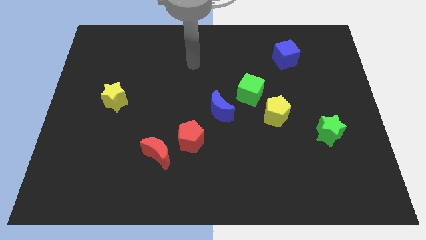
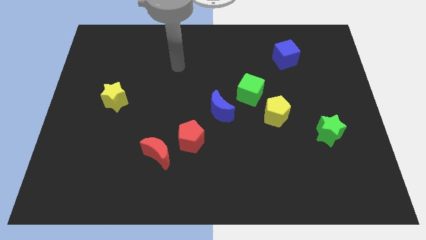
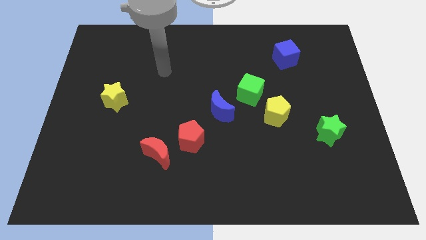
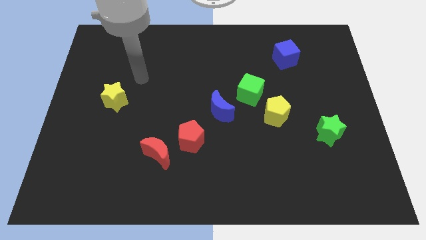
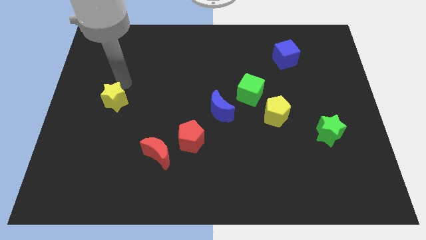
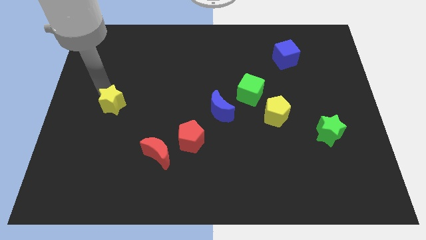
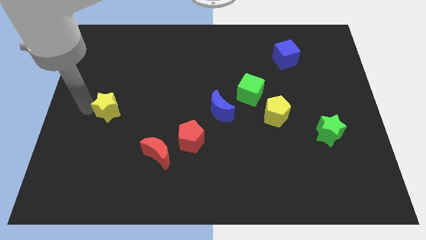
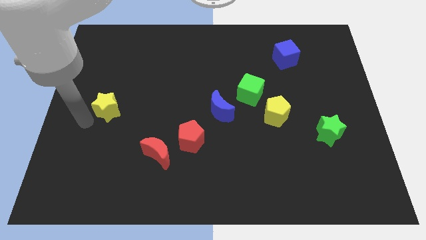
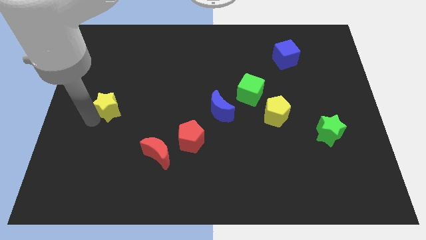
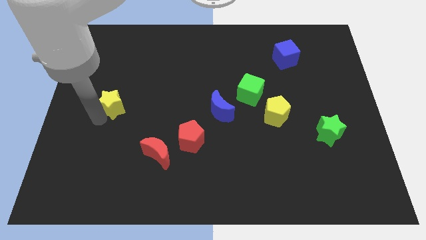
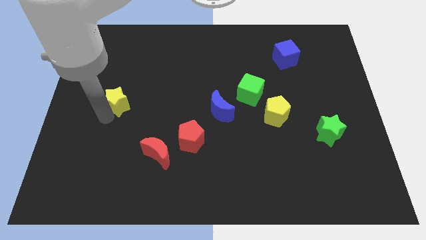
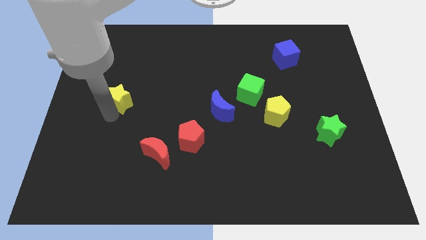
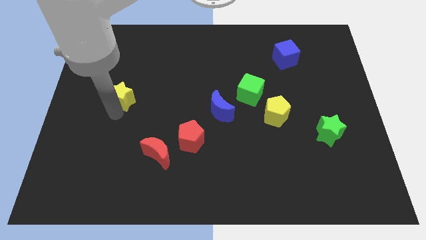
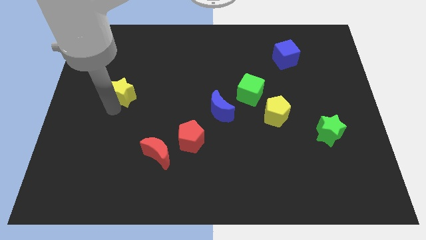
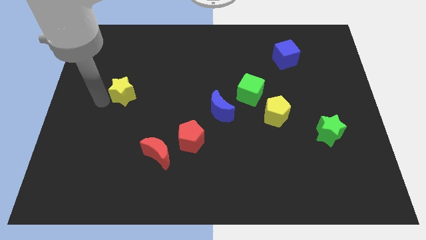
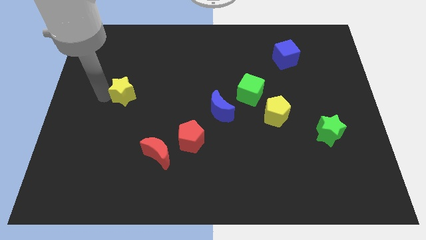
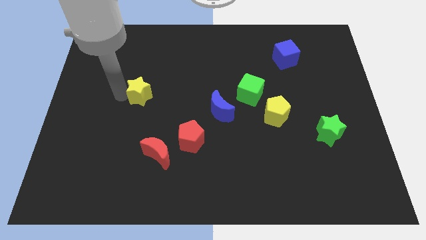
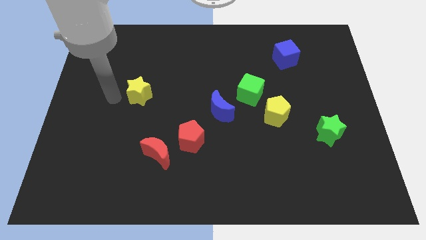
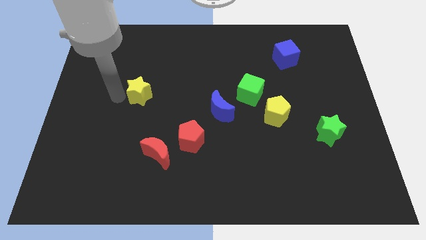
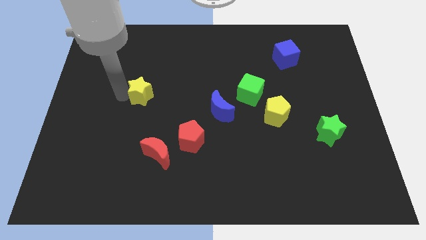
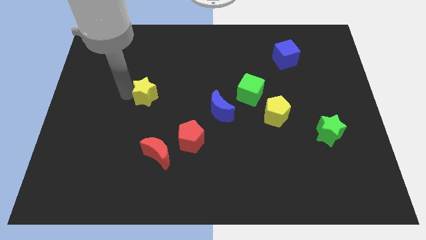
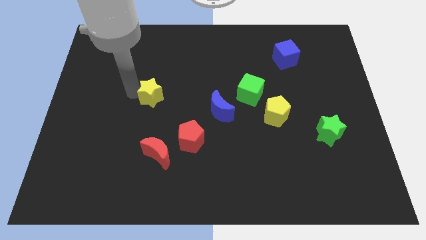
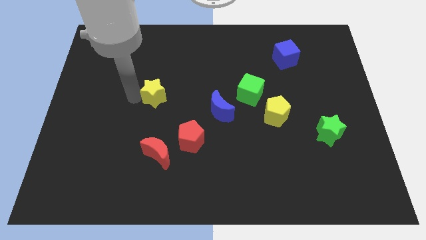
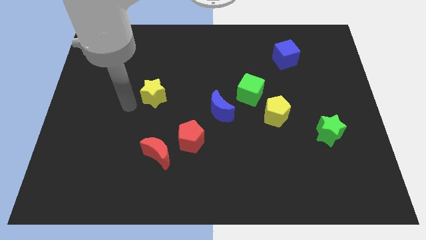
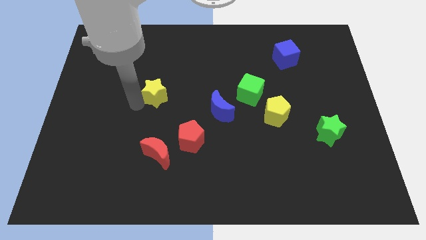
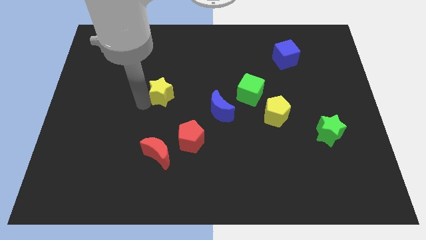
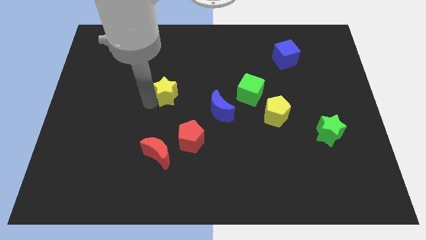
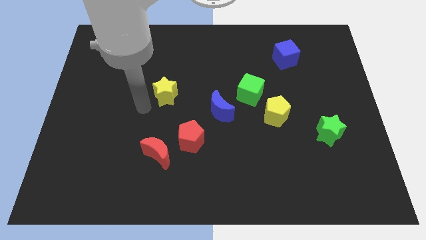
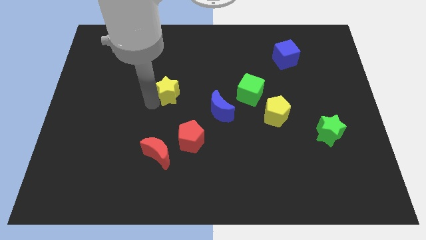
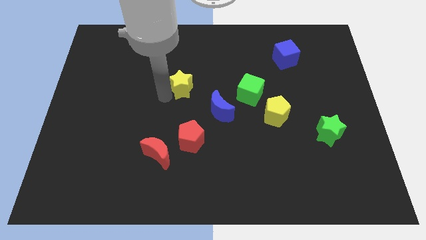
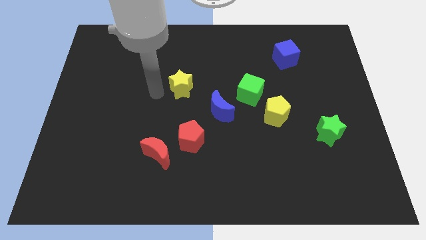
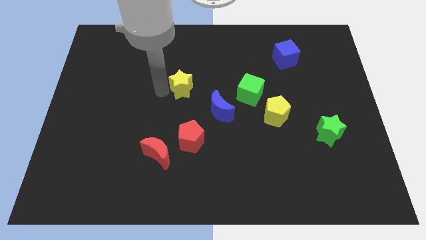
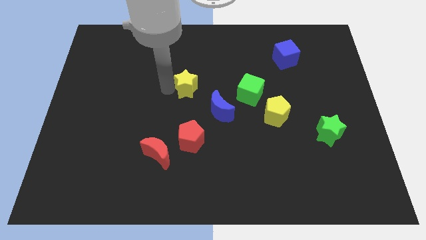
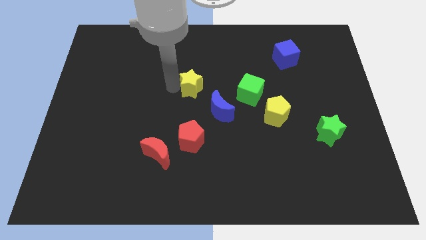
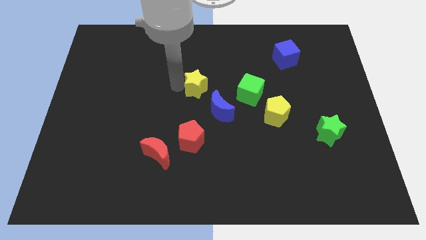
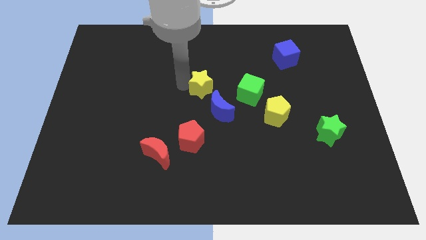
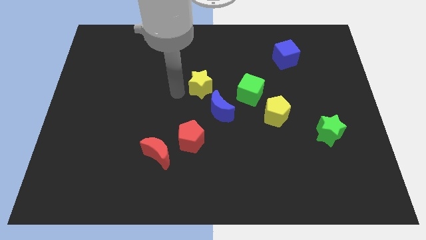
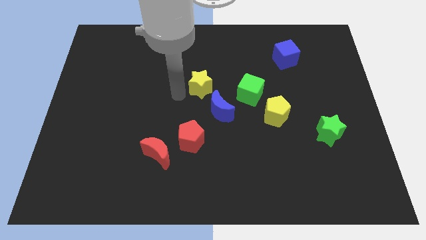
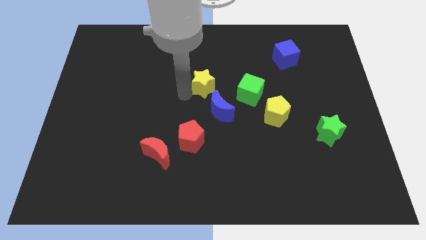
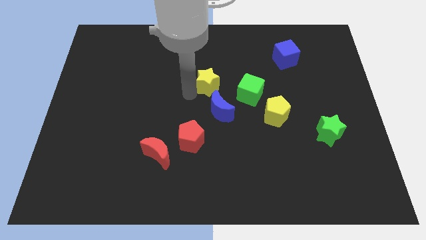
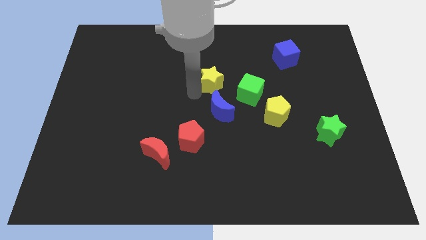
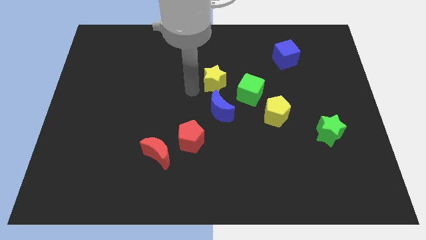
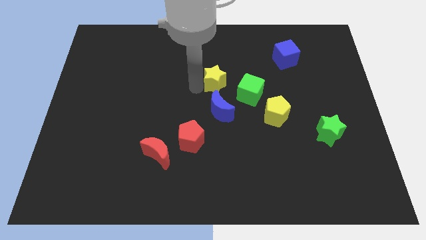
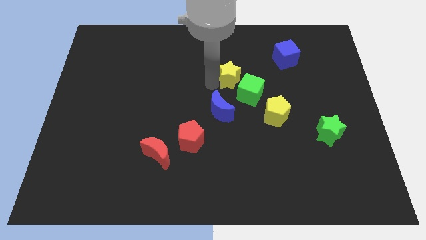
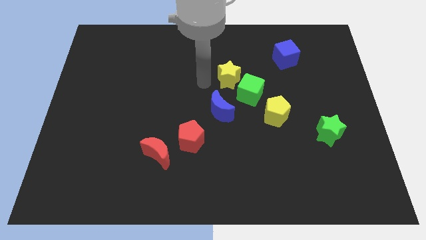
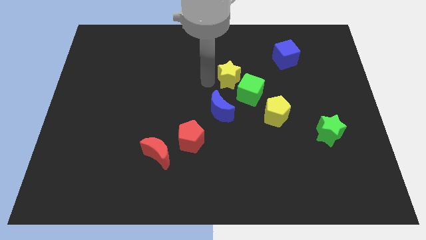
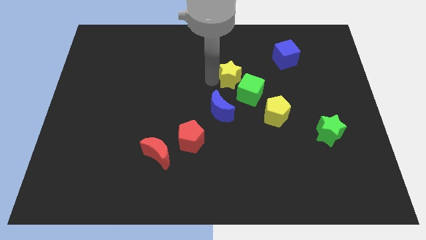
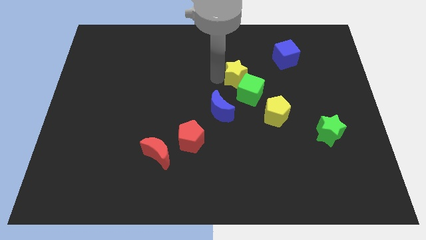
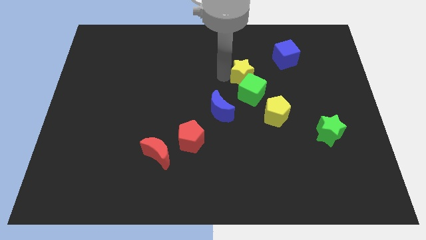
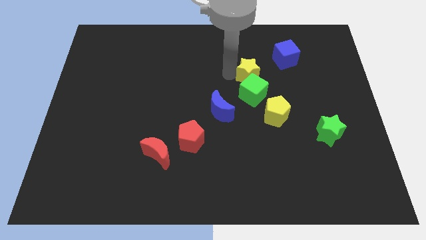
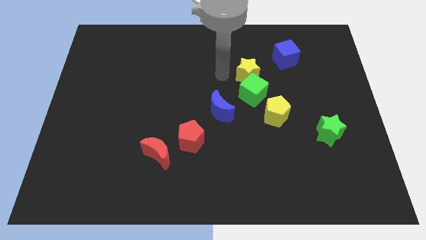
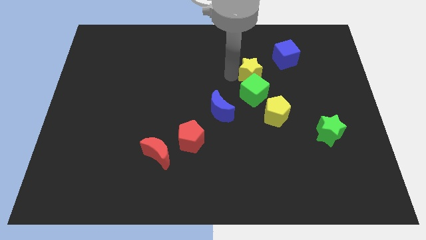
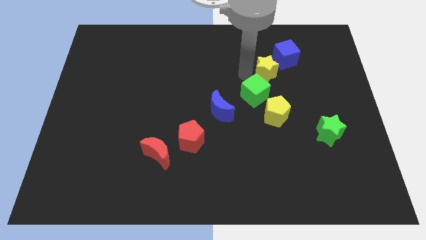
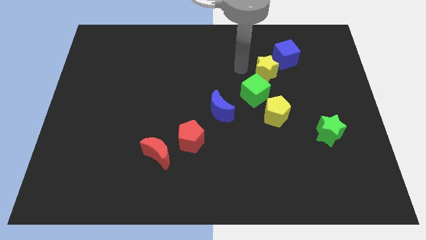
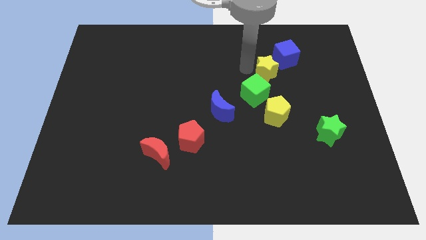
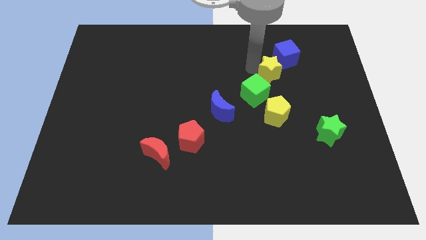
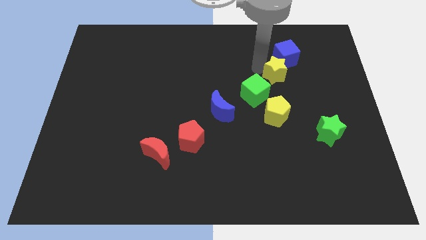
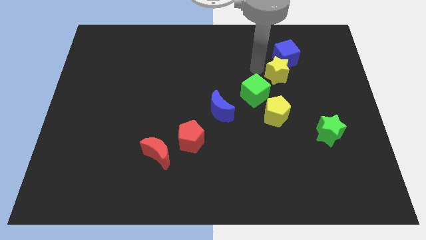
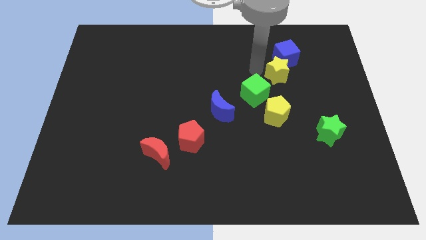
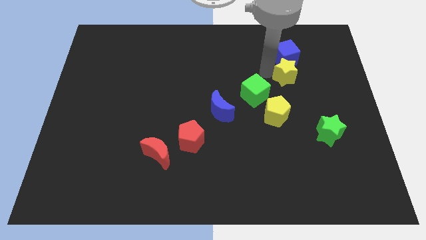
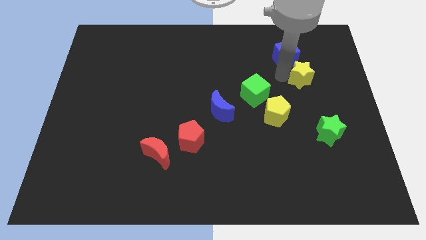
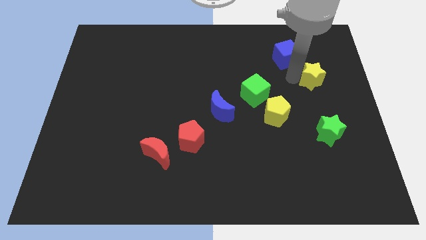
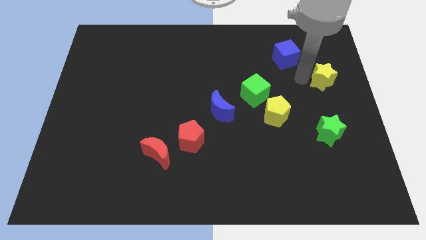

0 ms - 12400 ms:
move the yellow star to the right side
